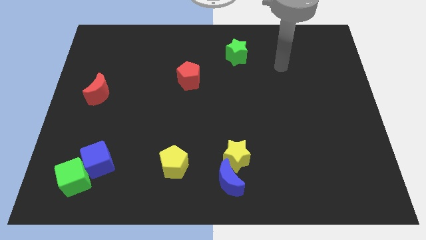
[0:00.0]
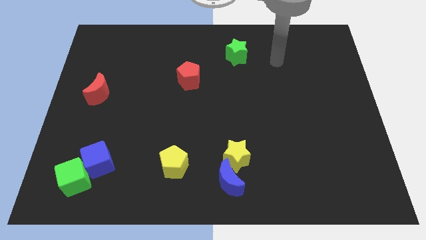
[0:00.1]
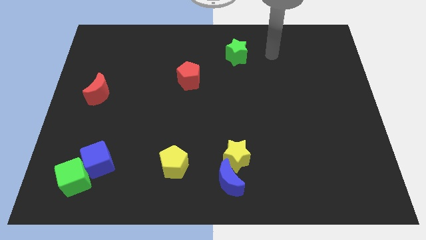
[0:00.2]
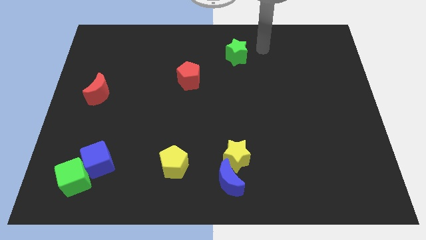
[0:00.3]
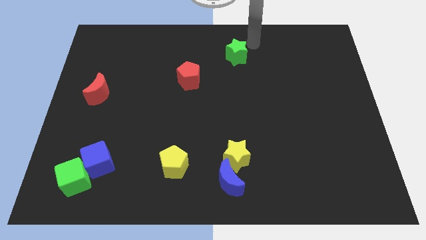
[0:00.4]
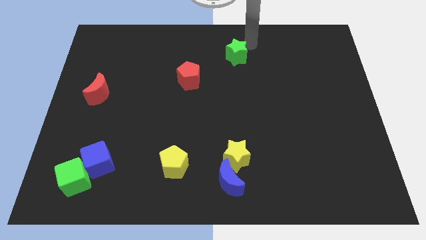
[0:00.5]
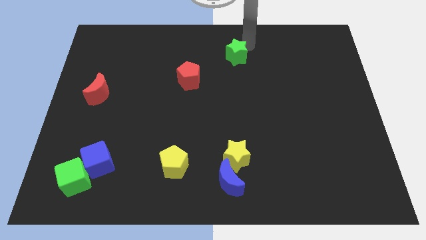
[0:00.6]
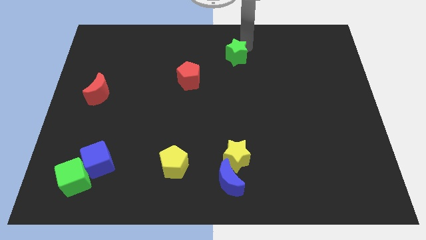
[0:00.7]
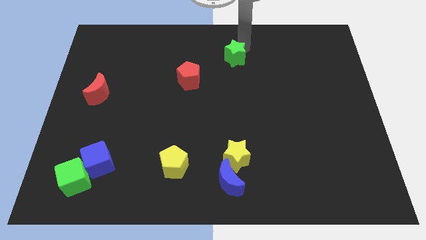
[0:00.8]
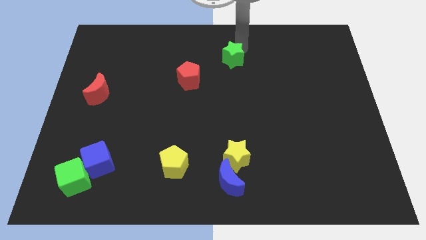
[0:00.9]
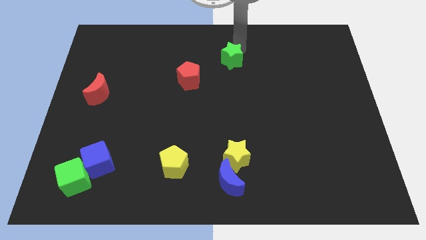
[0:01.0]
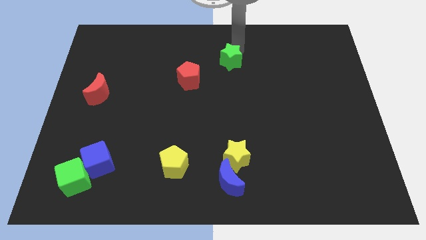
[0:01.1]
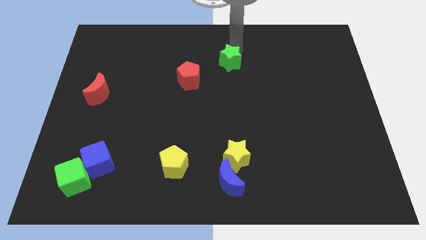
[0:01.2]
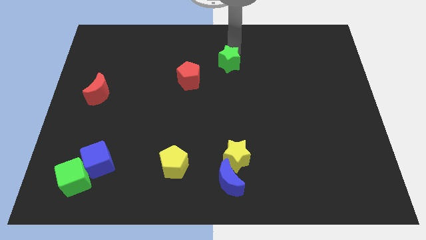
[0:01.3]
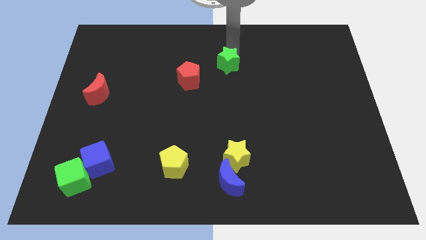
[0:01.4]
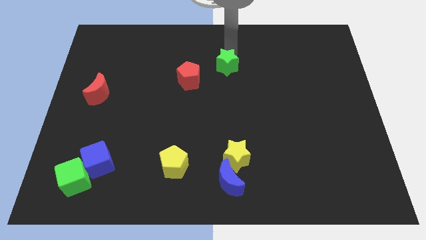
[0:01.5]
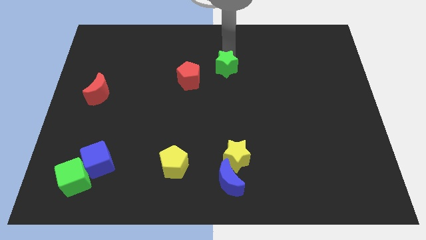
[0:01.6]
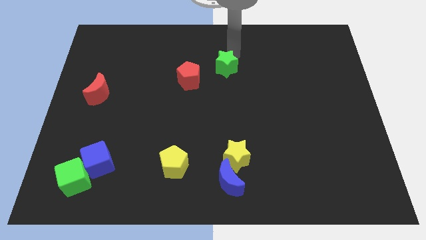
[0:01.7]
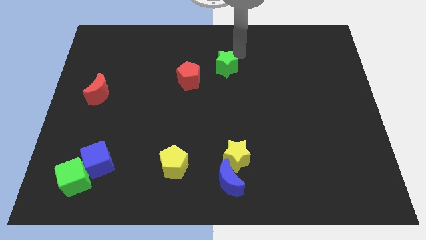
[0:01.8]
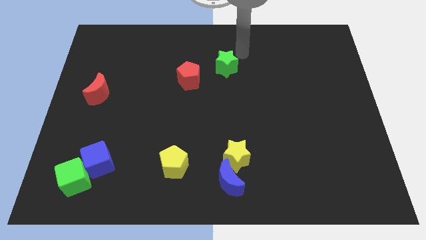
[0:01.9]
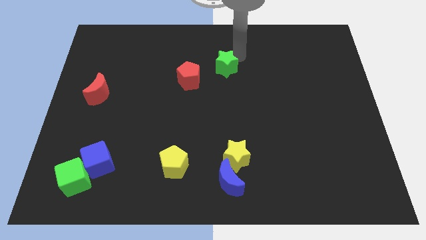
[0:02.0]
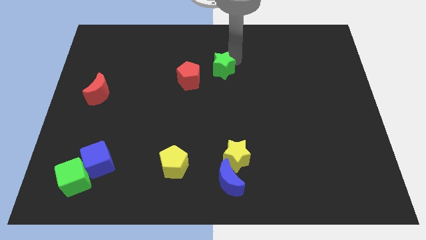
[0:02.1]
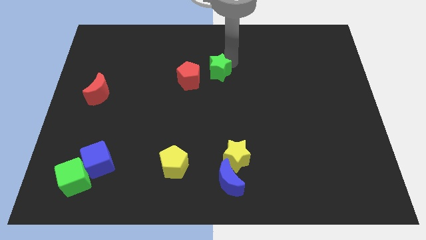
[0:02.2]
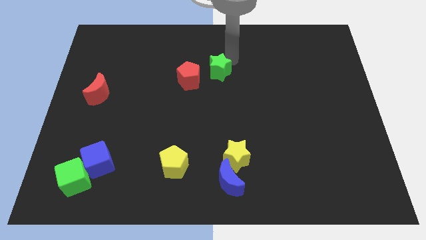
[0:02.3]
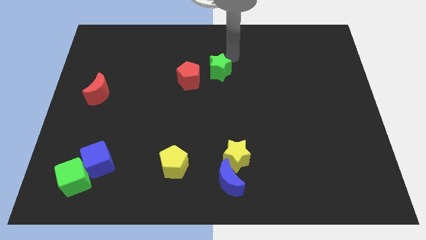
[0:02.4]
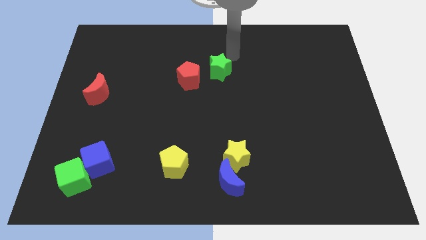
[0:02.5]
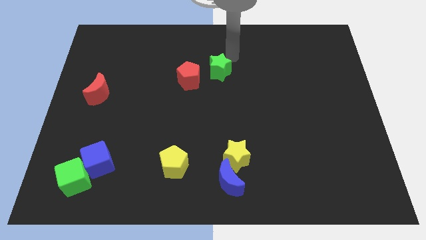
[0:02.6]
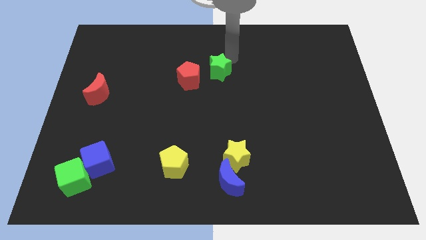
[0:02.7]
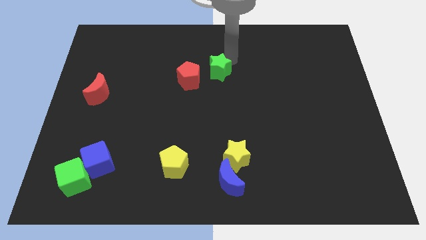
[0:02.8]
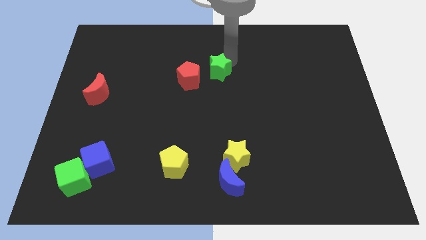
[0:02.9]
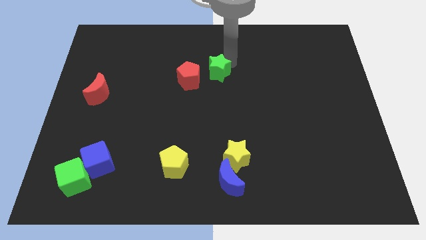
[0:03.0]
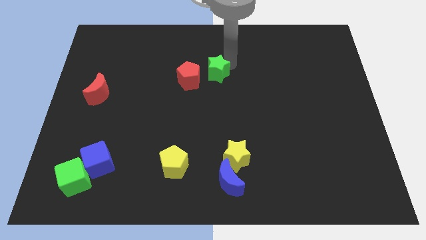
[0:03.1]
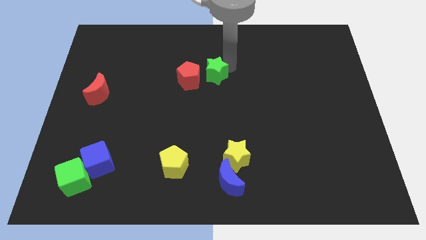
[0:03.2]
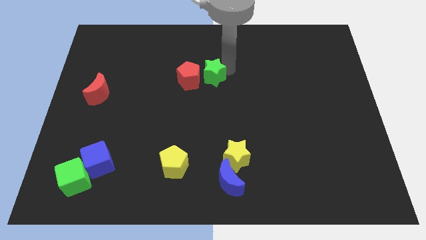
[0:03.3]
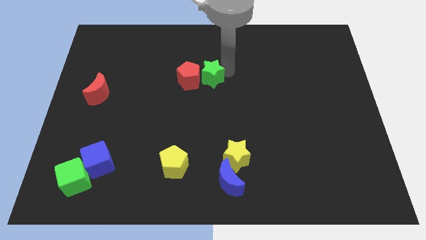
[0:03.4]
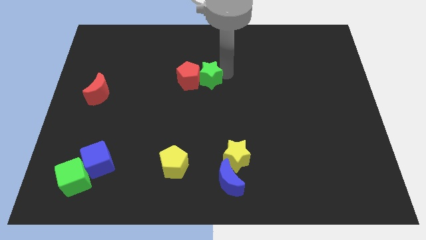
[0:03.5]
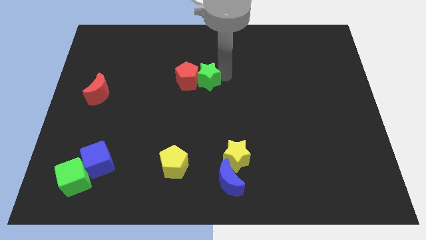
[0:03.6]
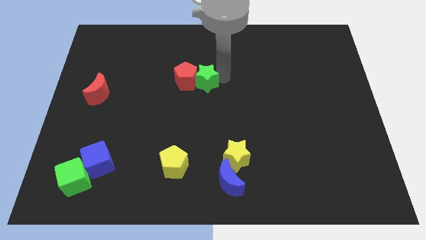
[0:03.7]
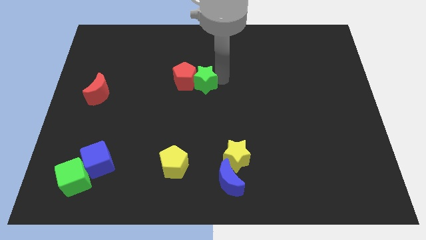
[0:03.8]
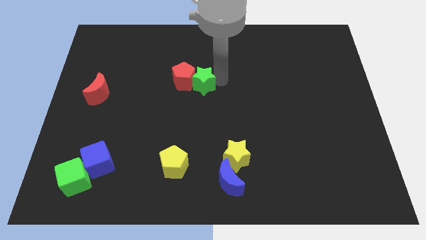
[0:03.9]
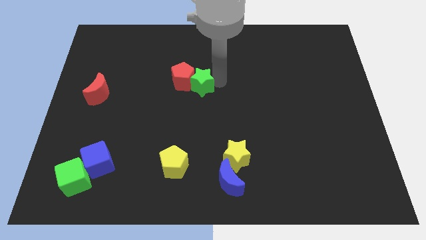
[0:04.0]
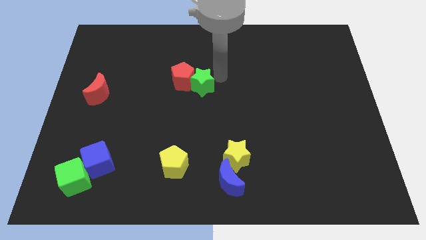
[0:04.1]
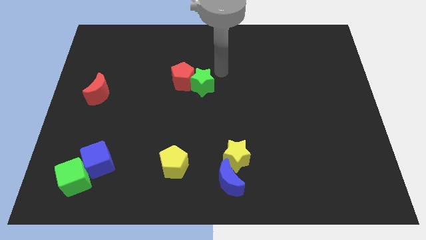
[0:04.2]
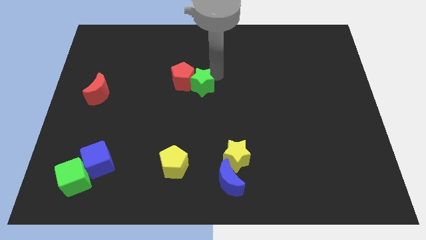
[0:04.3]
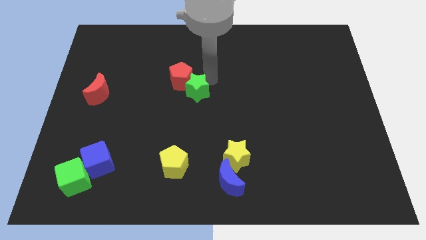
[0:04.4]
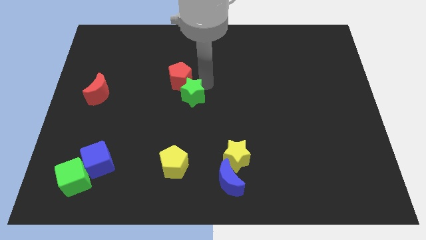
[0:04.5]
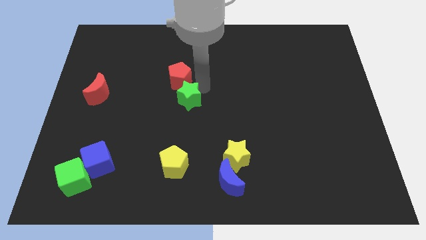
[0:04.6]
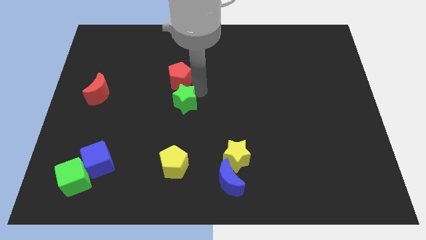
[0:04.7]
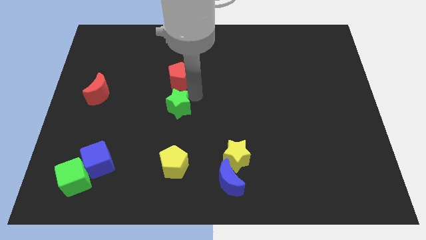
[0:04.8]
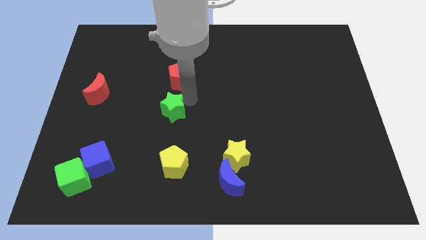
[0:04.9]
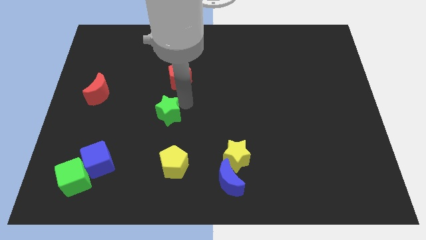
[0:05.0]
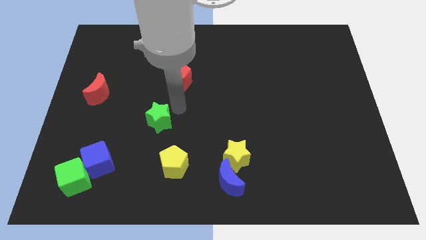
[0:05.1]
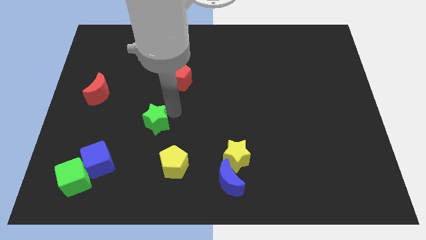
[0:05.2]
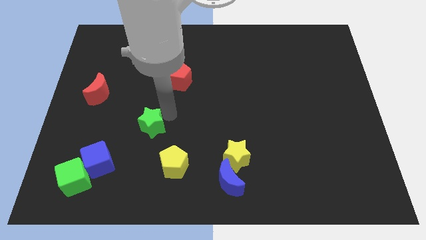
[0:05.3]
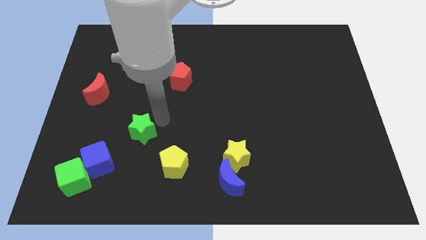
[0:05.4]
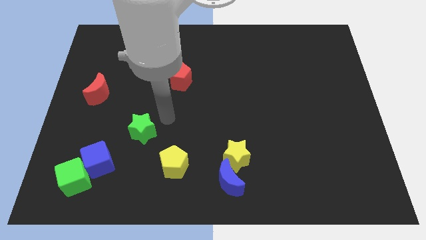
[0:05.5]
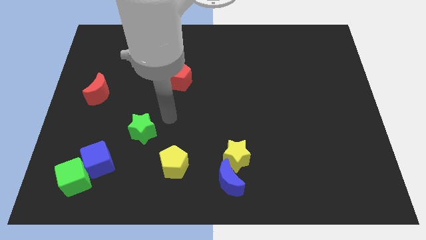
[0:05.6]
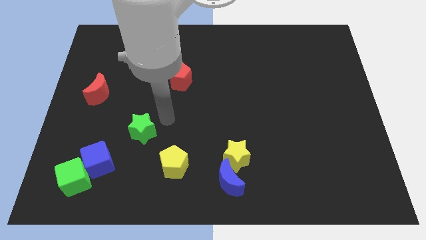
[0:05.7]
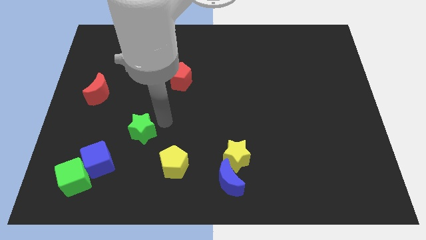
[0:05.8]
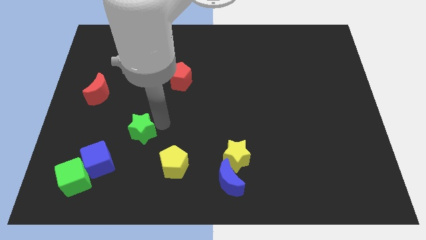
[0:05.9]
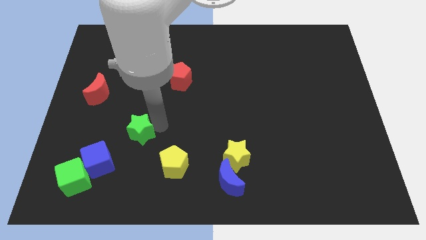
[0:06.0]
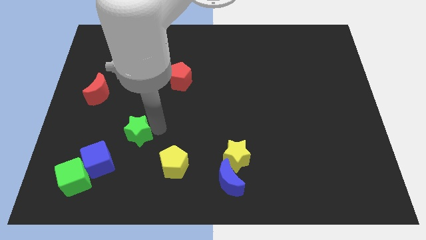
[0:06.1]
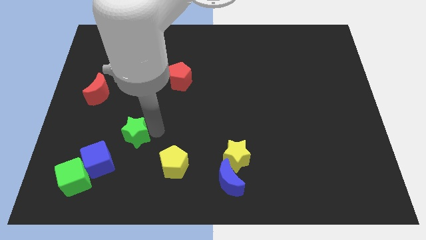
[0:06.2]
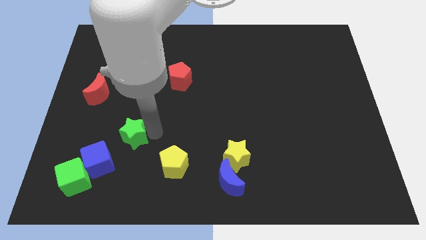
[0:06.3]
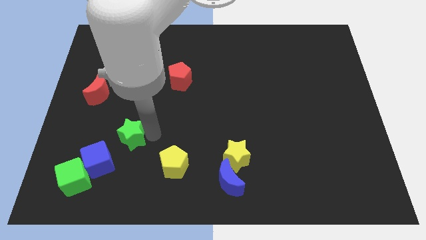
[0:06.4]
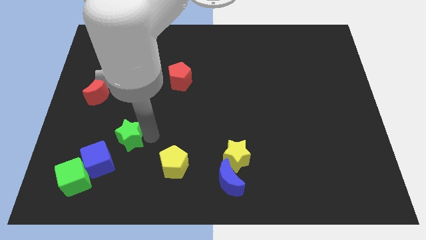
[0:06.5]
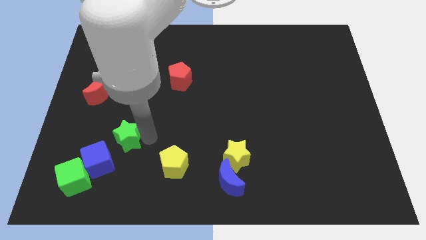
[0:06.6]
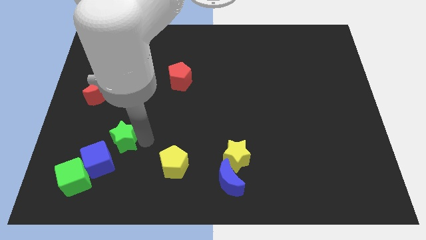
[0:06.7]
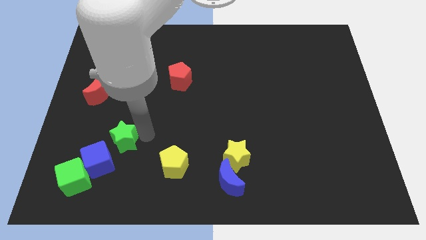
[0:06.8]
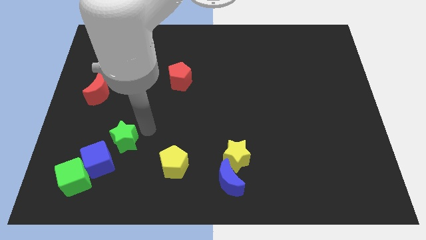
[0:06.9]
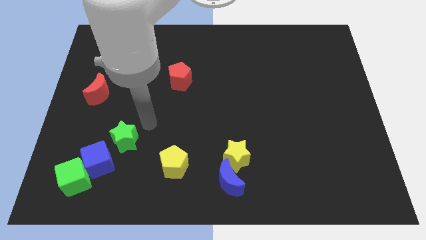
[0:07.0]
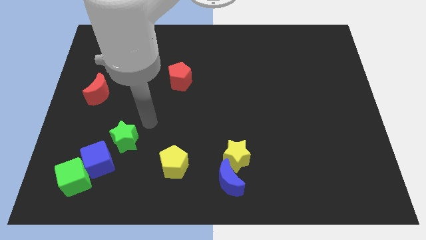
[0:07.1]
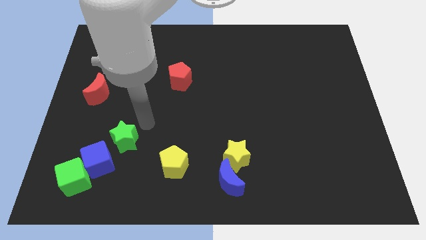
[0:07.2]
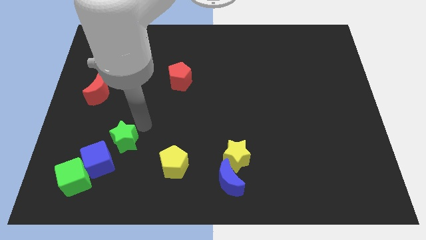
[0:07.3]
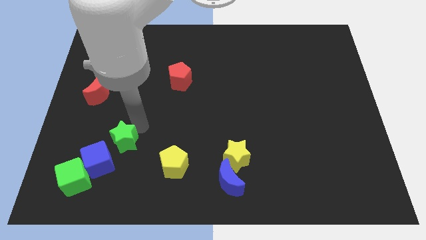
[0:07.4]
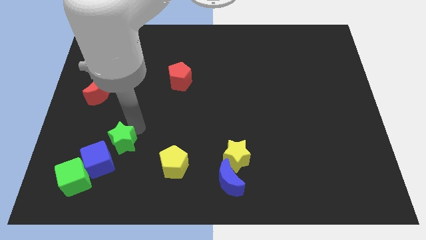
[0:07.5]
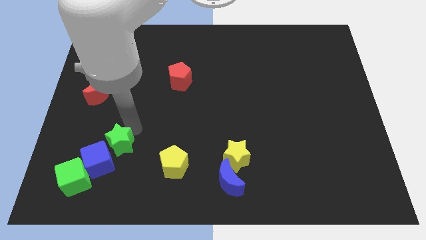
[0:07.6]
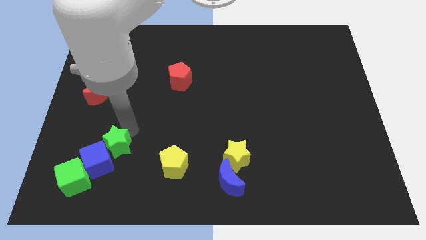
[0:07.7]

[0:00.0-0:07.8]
put the green star next to the blue cube
